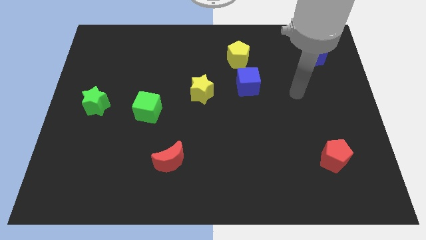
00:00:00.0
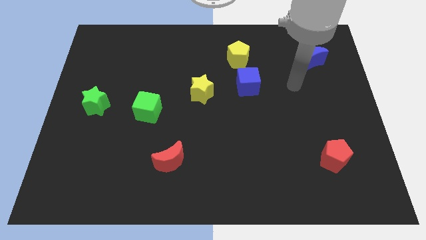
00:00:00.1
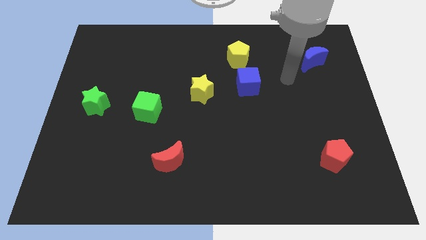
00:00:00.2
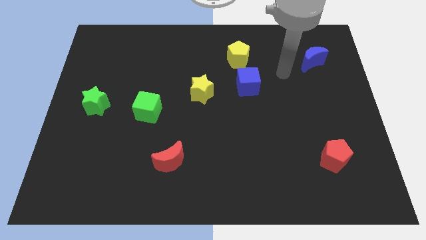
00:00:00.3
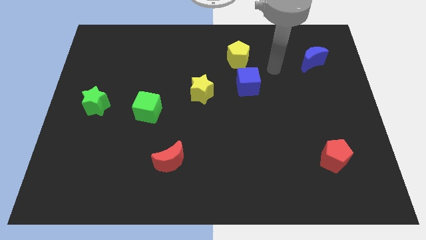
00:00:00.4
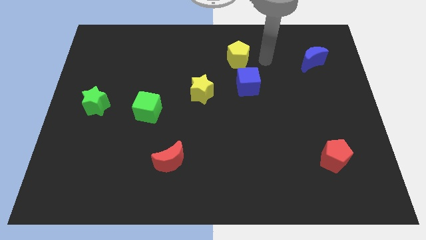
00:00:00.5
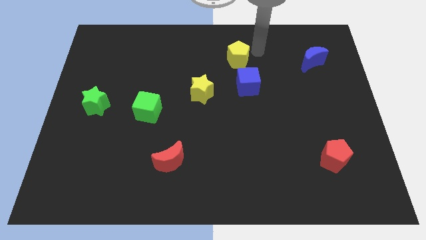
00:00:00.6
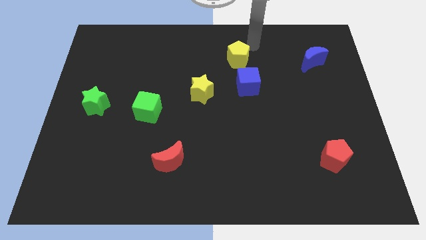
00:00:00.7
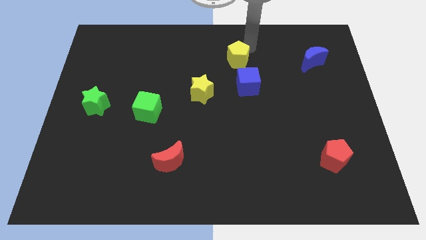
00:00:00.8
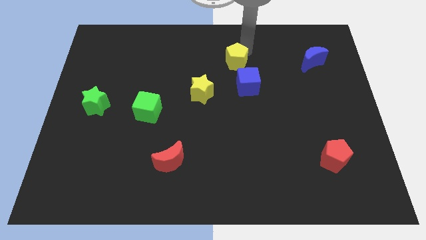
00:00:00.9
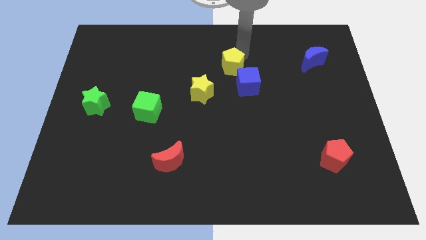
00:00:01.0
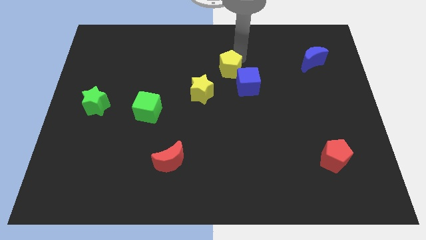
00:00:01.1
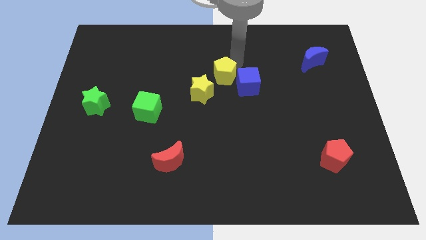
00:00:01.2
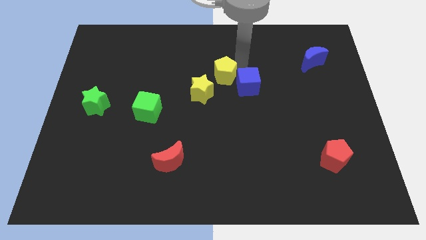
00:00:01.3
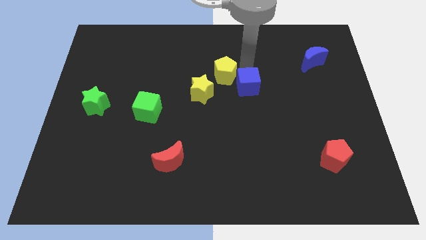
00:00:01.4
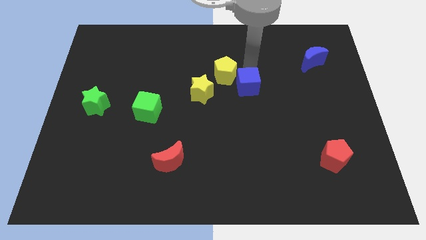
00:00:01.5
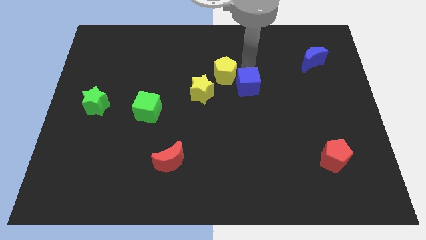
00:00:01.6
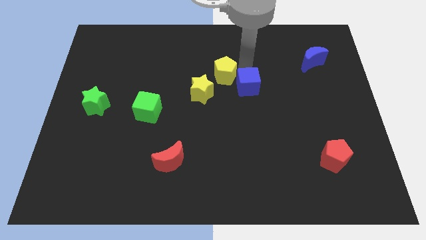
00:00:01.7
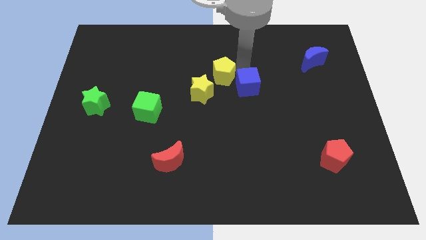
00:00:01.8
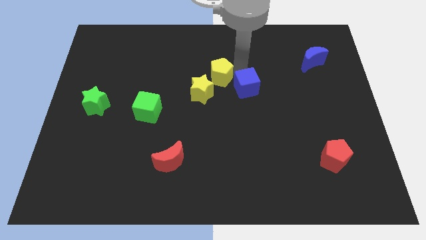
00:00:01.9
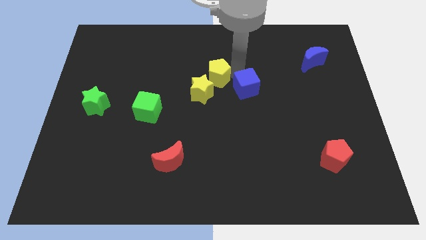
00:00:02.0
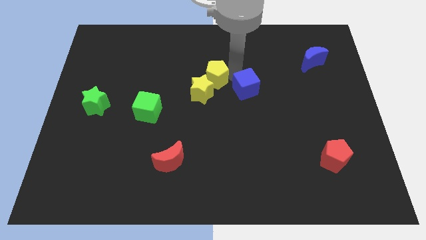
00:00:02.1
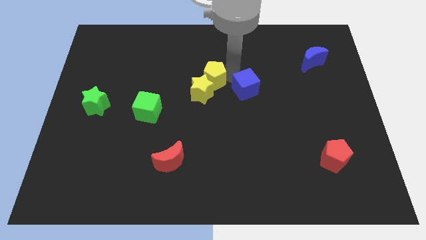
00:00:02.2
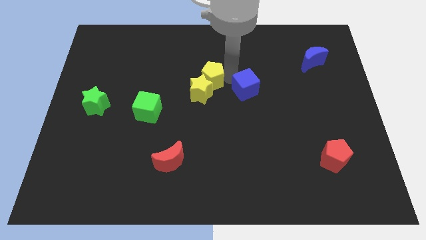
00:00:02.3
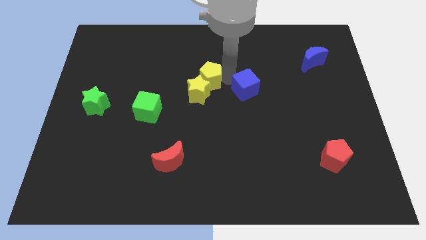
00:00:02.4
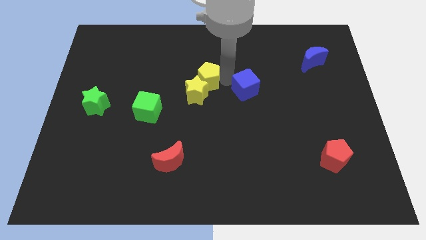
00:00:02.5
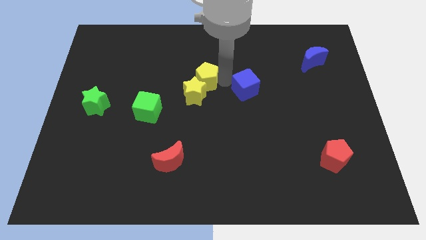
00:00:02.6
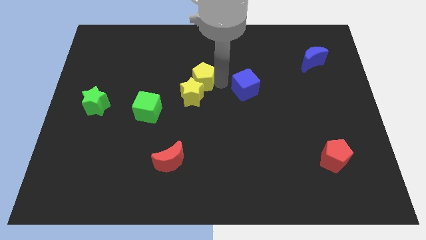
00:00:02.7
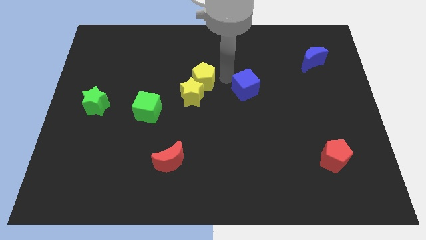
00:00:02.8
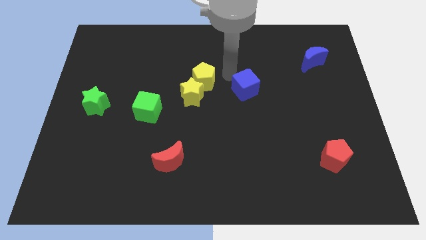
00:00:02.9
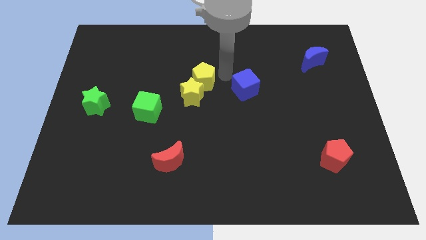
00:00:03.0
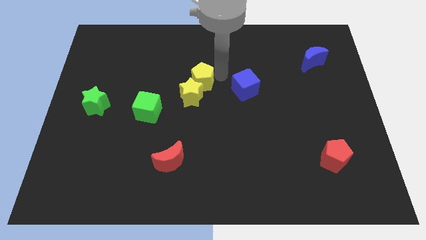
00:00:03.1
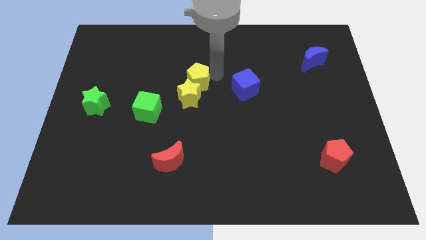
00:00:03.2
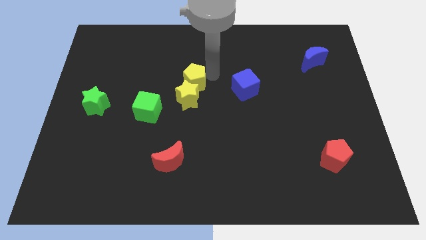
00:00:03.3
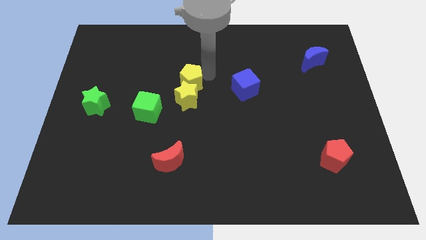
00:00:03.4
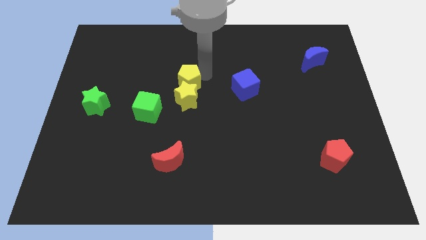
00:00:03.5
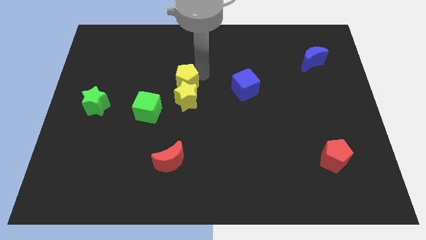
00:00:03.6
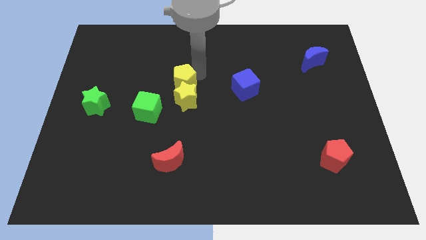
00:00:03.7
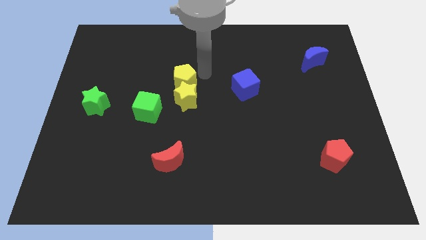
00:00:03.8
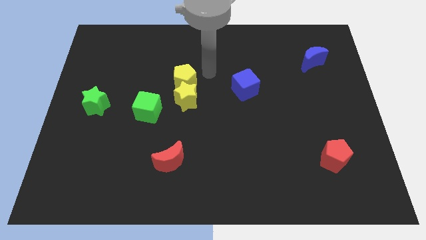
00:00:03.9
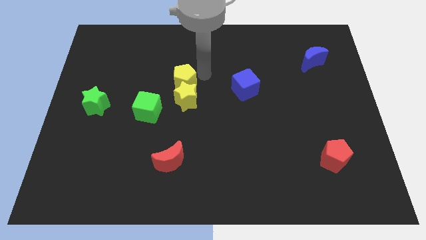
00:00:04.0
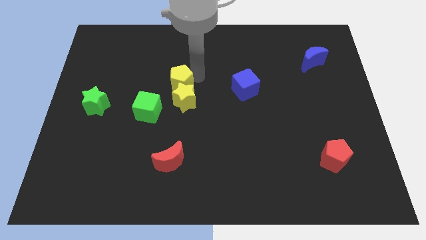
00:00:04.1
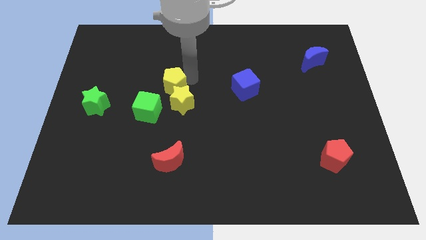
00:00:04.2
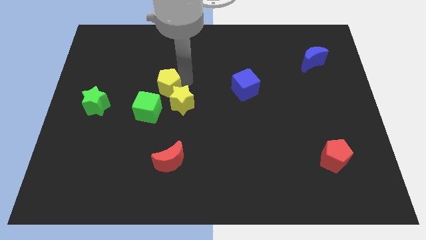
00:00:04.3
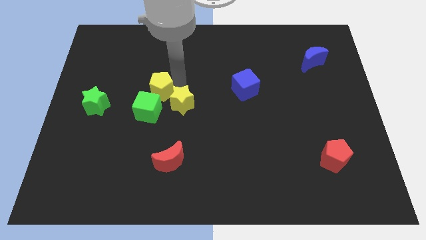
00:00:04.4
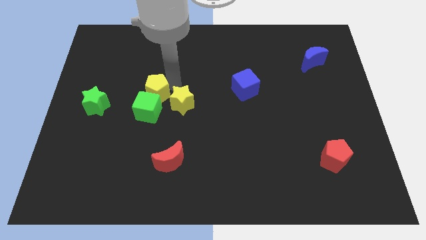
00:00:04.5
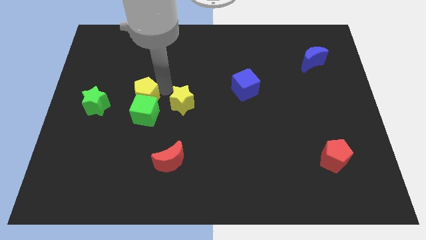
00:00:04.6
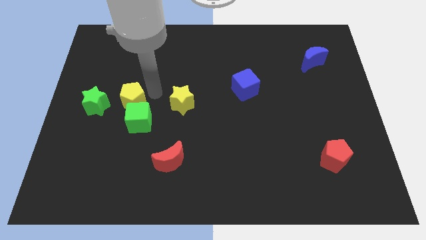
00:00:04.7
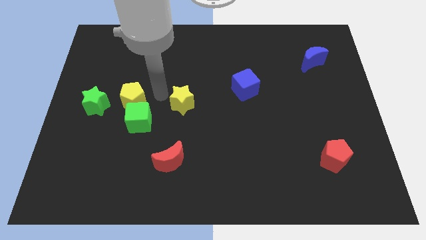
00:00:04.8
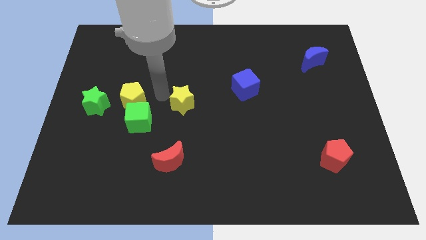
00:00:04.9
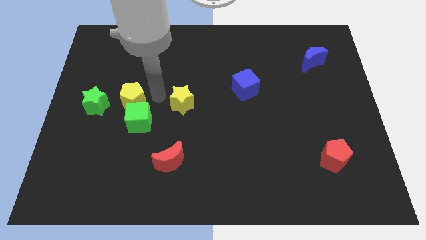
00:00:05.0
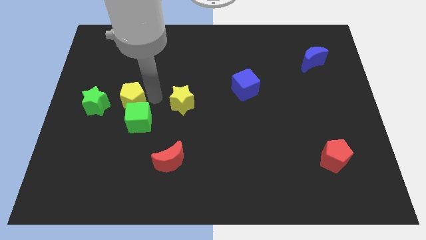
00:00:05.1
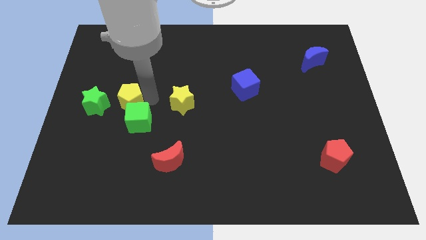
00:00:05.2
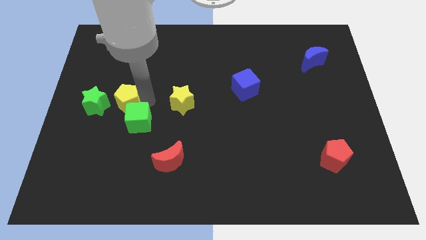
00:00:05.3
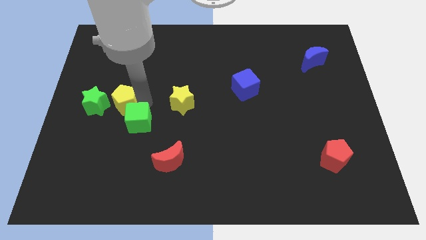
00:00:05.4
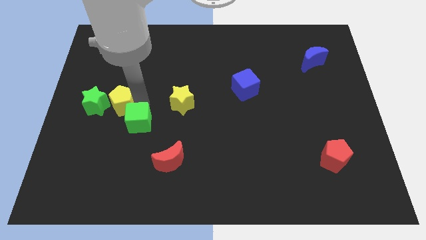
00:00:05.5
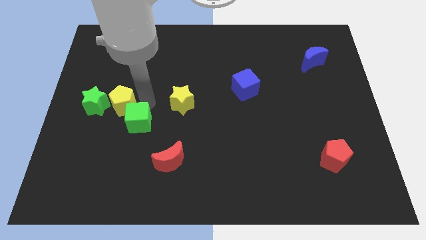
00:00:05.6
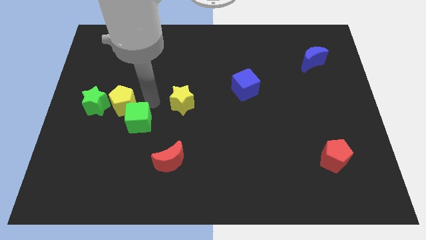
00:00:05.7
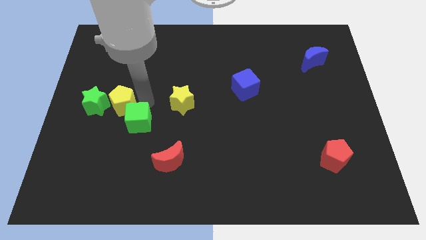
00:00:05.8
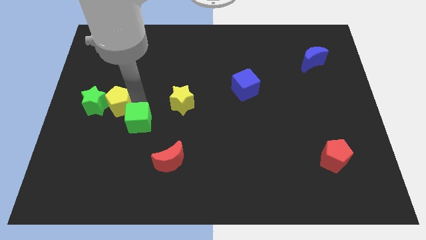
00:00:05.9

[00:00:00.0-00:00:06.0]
put the yellow pentagon towards the green star

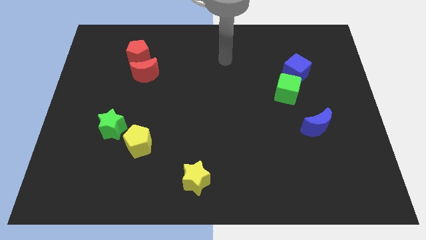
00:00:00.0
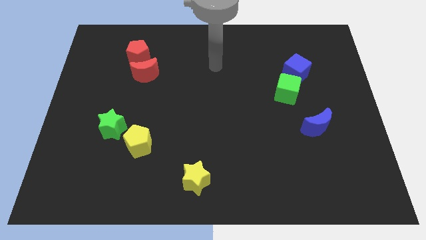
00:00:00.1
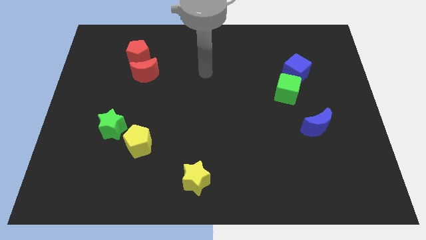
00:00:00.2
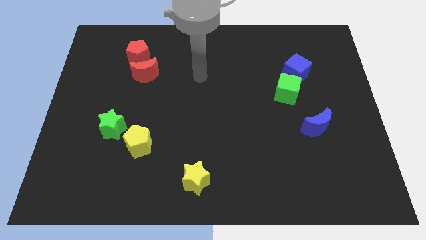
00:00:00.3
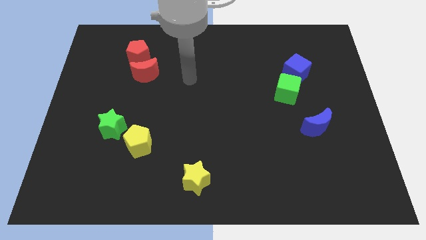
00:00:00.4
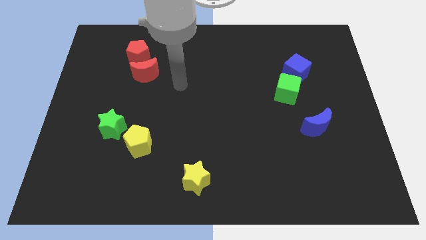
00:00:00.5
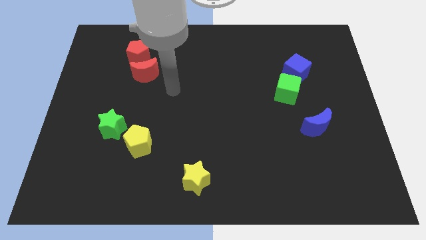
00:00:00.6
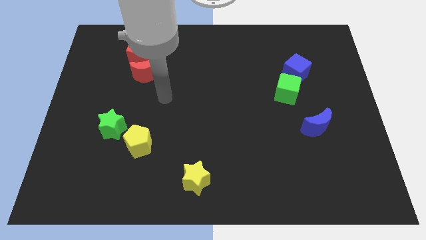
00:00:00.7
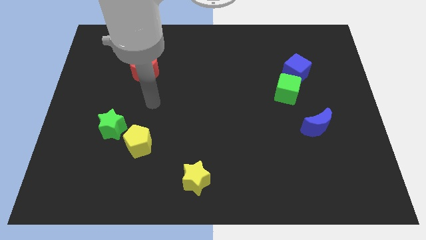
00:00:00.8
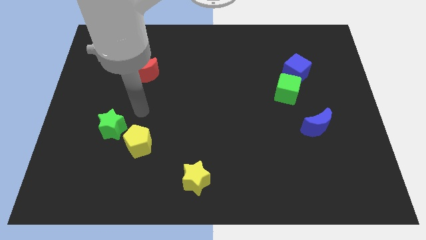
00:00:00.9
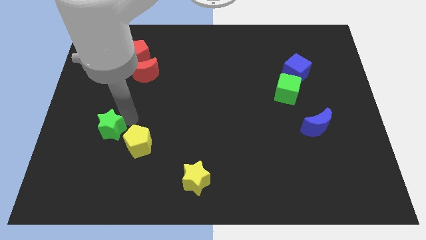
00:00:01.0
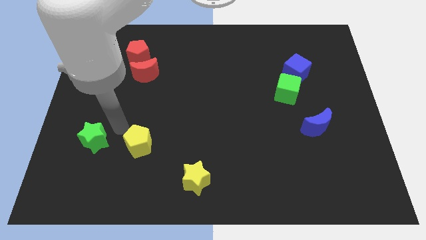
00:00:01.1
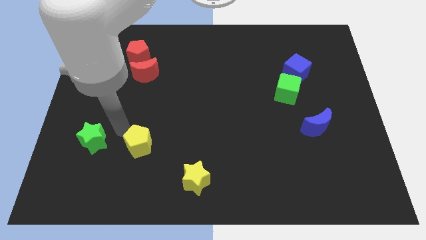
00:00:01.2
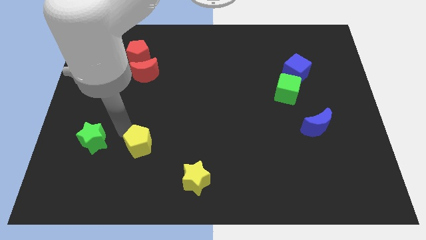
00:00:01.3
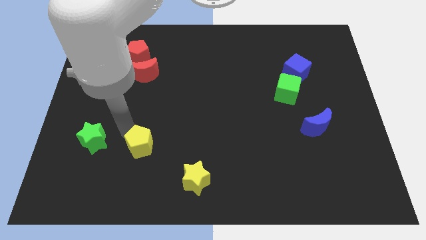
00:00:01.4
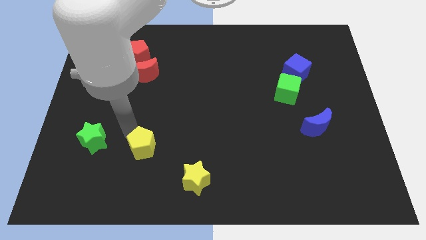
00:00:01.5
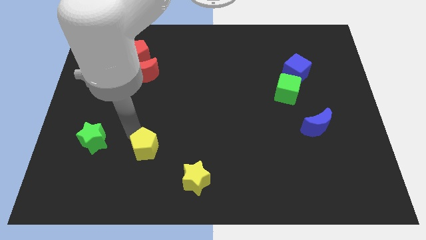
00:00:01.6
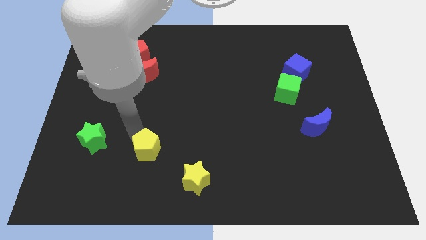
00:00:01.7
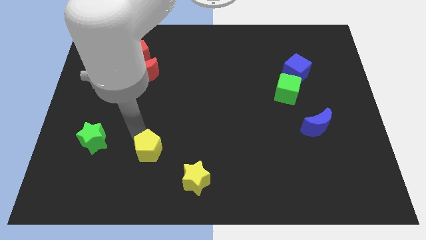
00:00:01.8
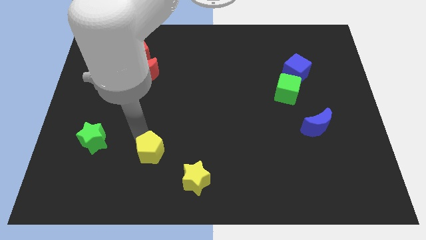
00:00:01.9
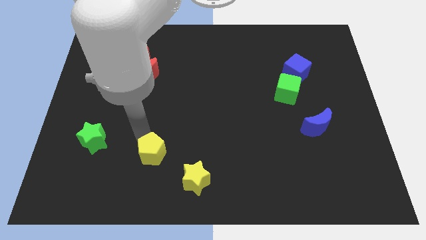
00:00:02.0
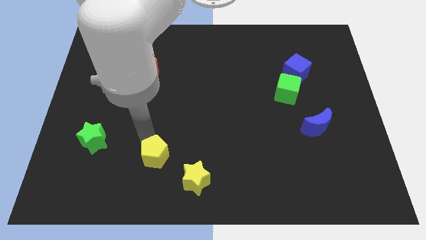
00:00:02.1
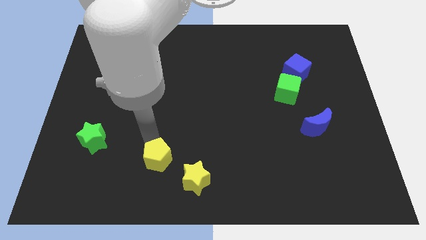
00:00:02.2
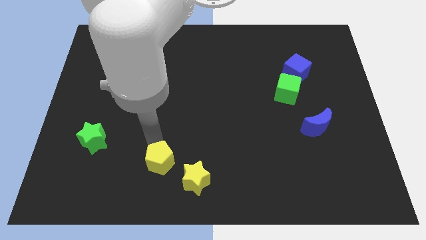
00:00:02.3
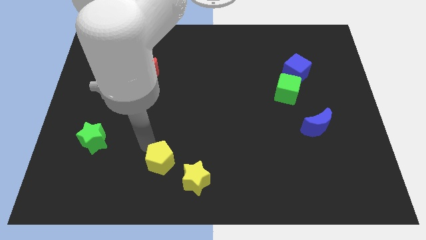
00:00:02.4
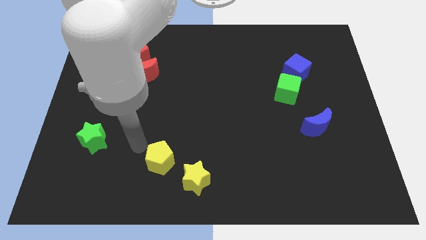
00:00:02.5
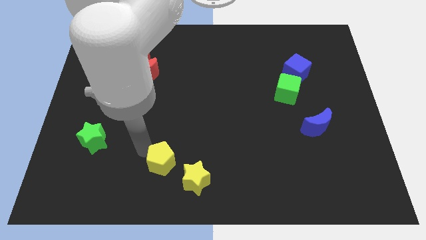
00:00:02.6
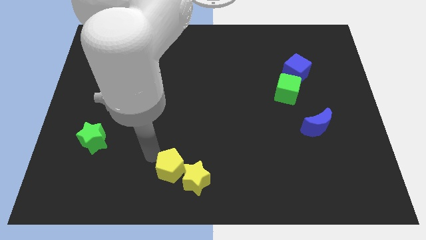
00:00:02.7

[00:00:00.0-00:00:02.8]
push the yellow pentagon to the yellow star
